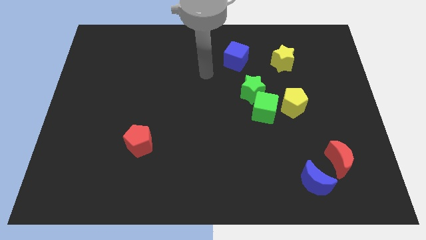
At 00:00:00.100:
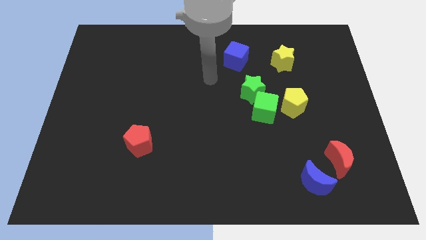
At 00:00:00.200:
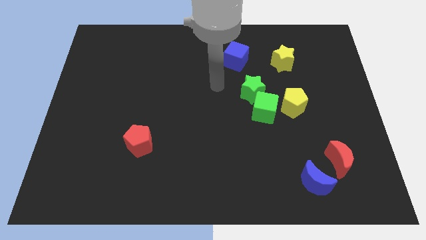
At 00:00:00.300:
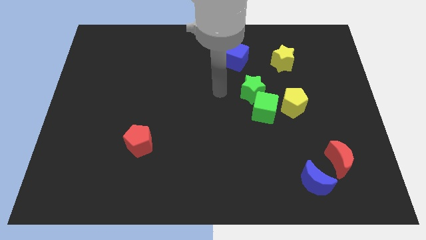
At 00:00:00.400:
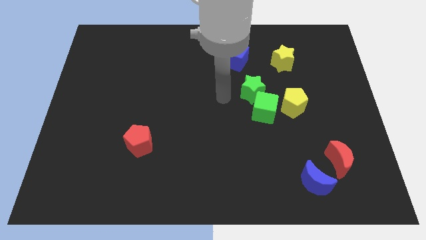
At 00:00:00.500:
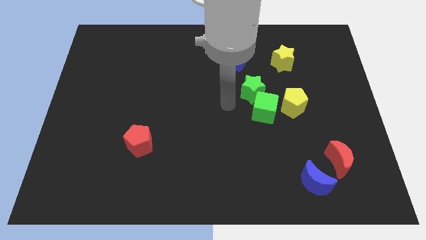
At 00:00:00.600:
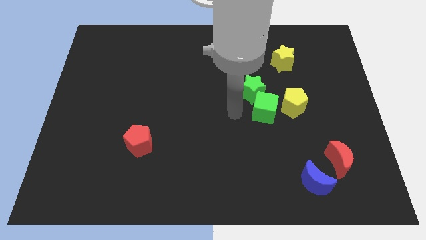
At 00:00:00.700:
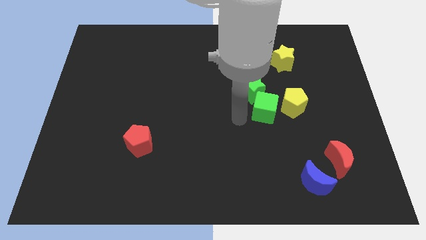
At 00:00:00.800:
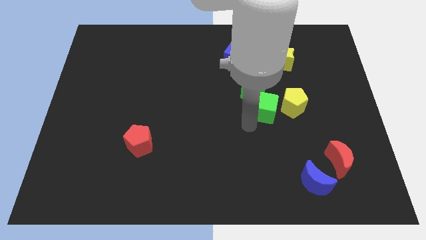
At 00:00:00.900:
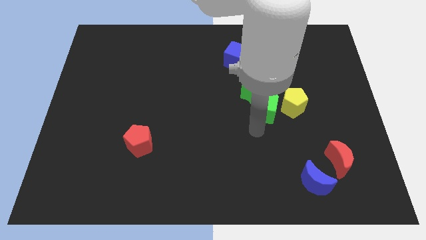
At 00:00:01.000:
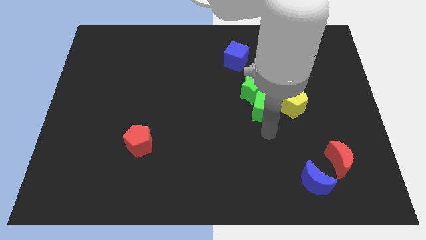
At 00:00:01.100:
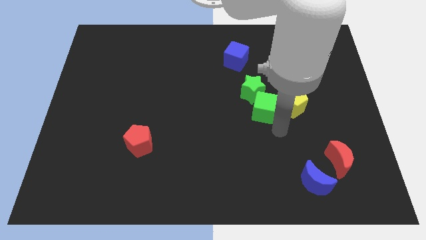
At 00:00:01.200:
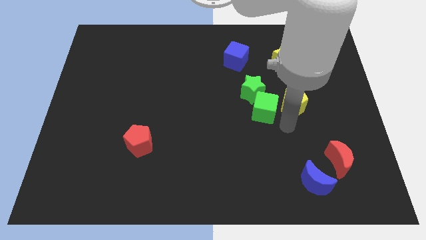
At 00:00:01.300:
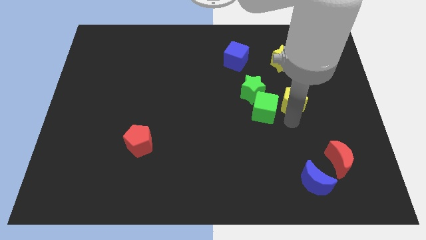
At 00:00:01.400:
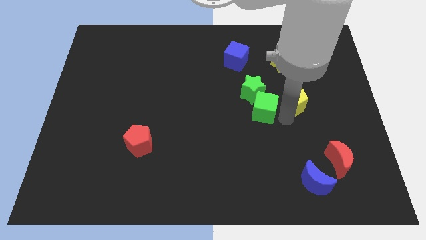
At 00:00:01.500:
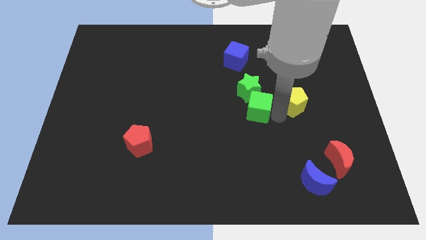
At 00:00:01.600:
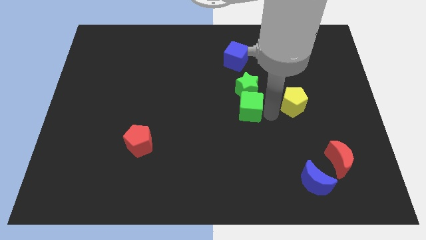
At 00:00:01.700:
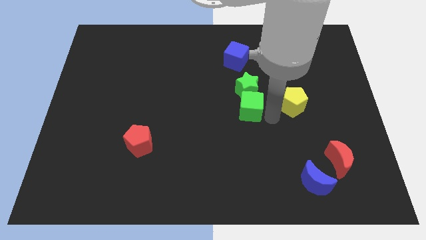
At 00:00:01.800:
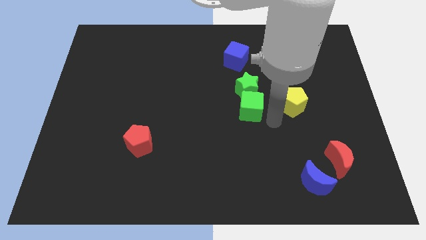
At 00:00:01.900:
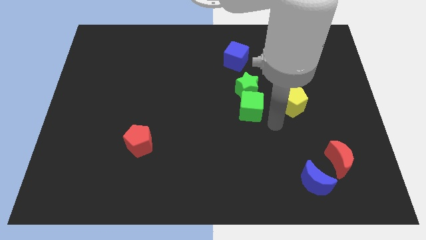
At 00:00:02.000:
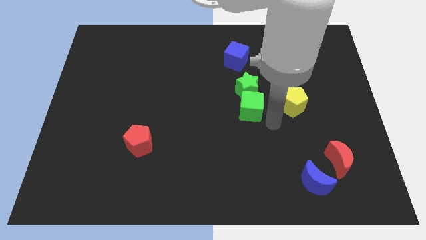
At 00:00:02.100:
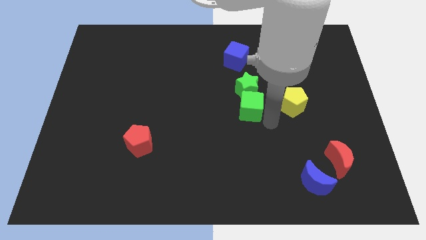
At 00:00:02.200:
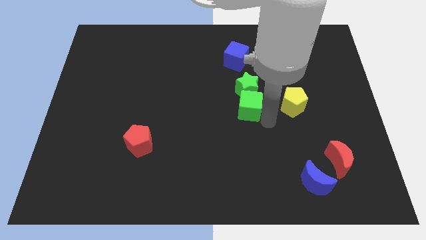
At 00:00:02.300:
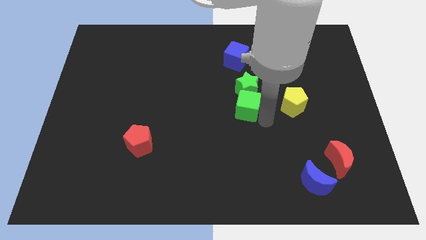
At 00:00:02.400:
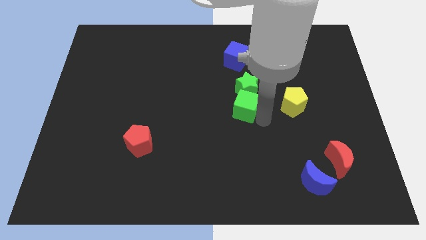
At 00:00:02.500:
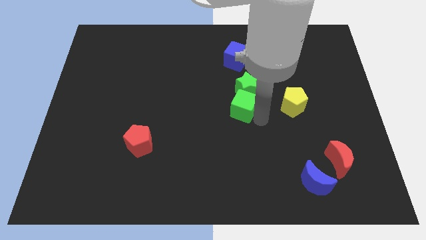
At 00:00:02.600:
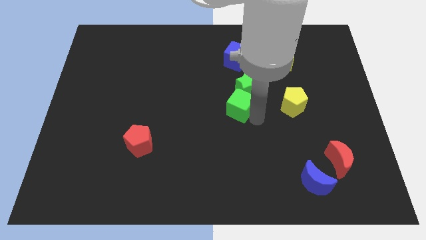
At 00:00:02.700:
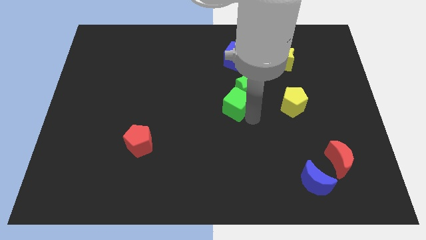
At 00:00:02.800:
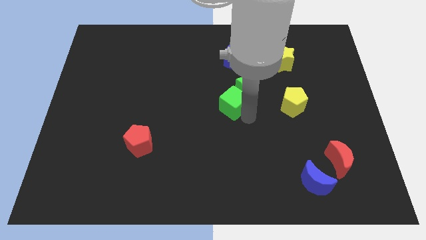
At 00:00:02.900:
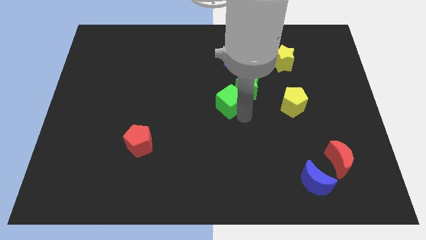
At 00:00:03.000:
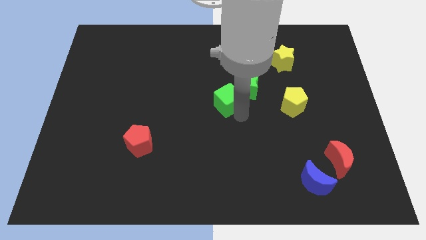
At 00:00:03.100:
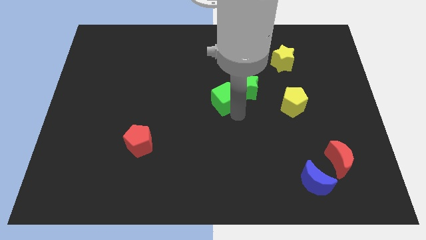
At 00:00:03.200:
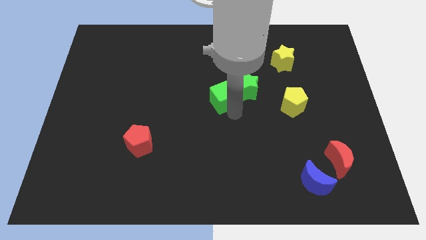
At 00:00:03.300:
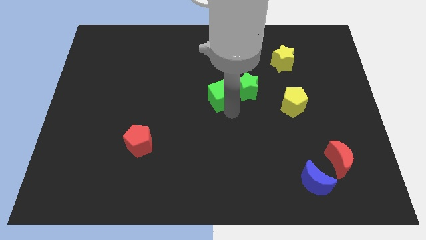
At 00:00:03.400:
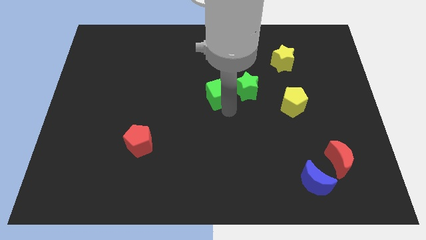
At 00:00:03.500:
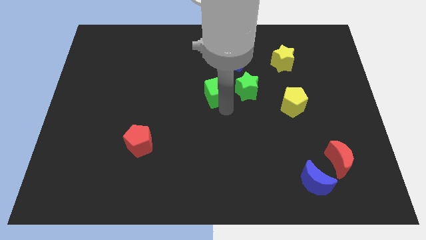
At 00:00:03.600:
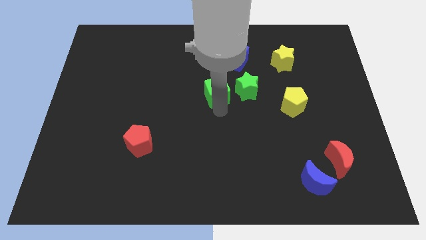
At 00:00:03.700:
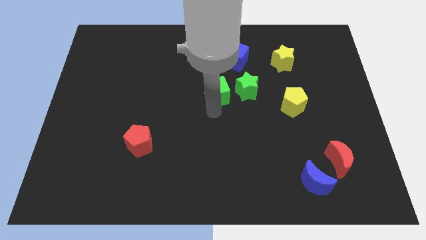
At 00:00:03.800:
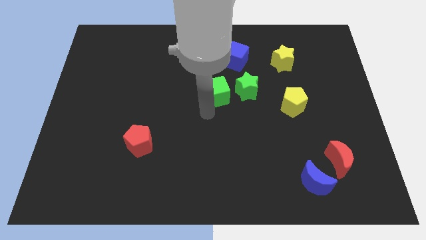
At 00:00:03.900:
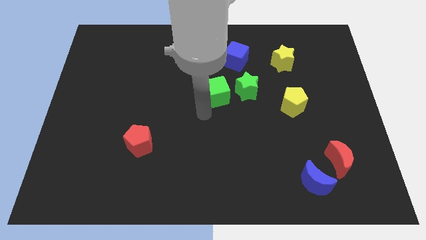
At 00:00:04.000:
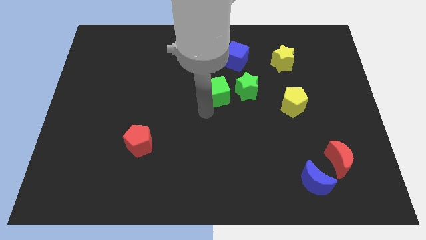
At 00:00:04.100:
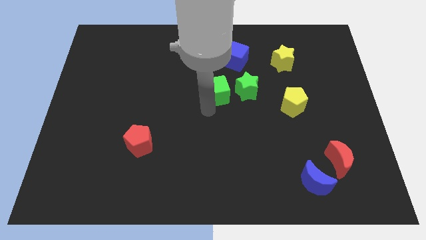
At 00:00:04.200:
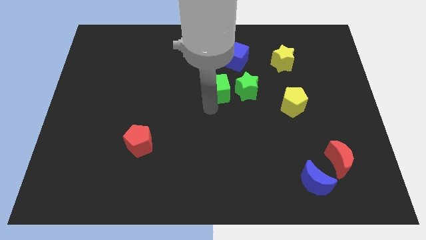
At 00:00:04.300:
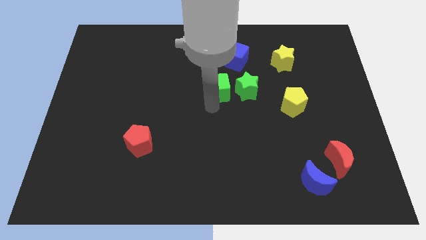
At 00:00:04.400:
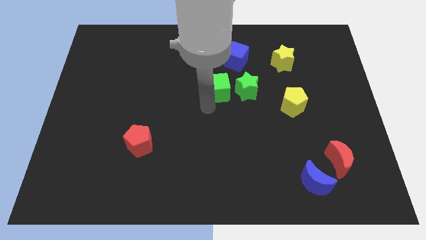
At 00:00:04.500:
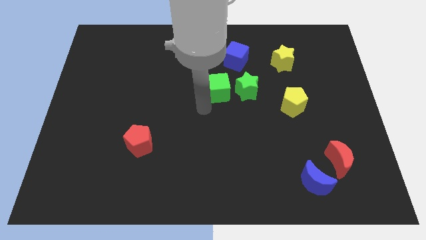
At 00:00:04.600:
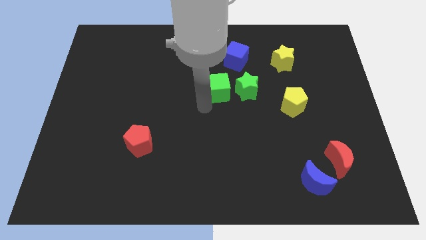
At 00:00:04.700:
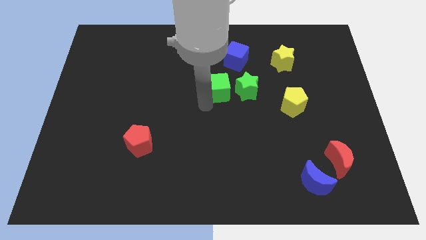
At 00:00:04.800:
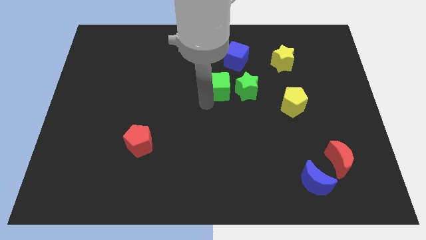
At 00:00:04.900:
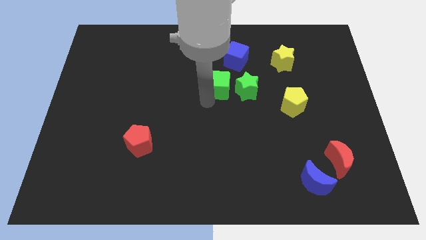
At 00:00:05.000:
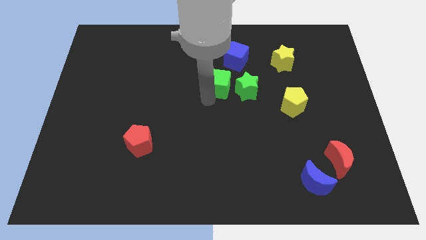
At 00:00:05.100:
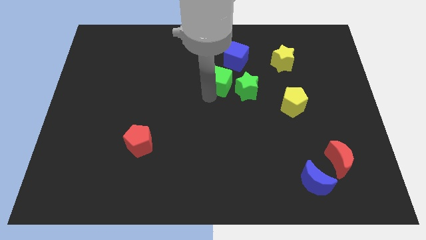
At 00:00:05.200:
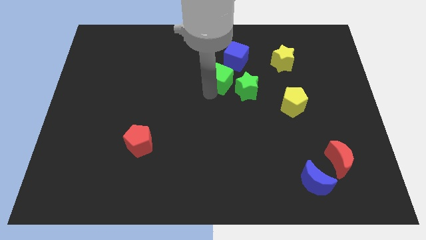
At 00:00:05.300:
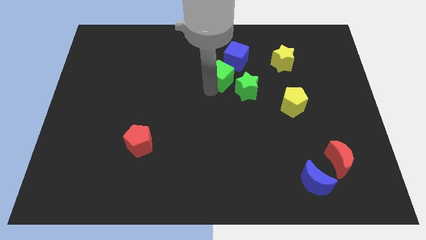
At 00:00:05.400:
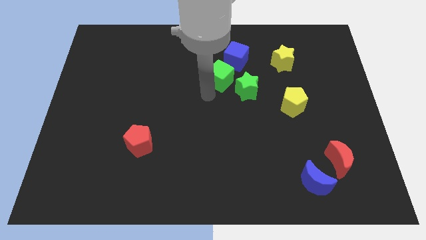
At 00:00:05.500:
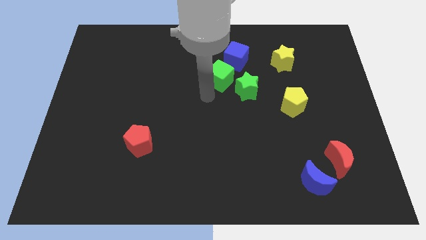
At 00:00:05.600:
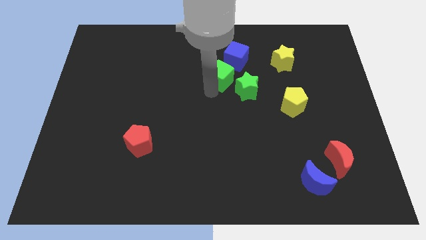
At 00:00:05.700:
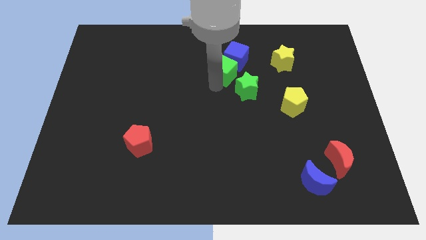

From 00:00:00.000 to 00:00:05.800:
push the green cube next to the blue cube
